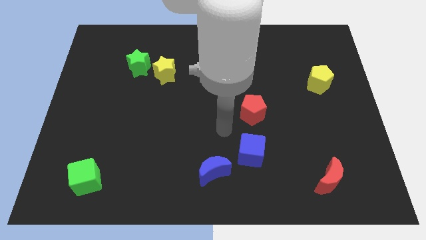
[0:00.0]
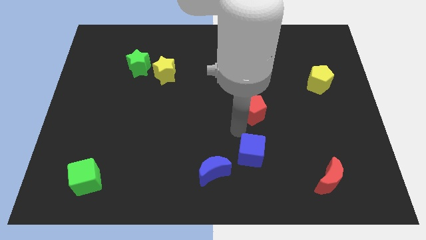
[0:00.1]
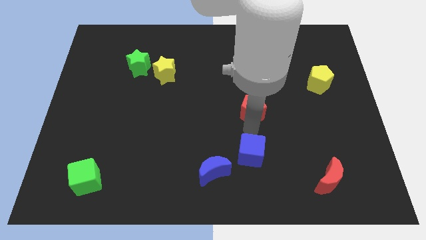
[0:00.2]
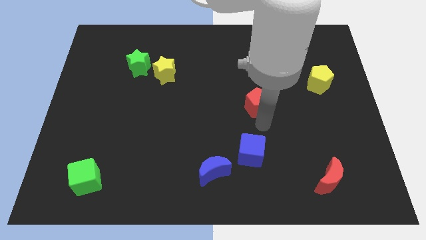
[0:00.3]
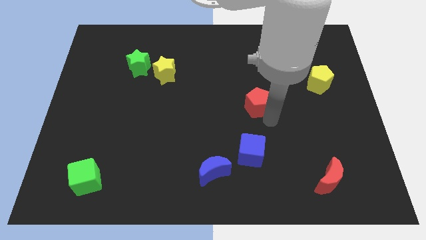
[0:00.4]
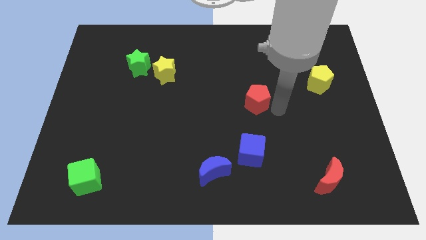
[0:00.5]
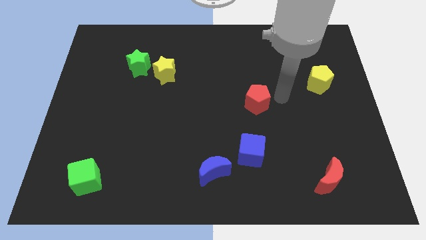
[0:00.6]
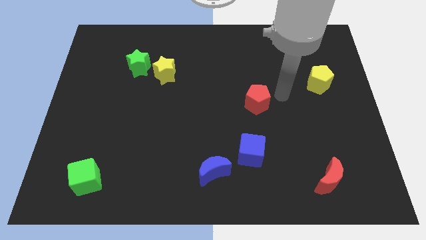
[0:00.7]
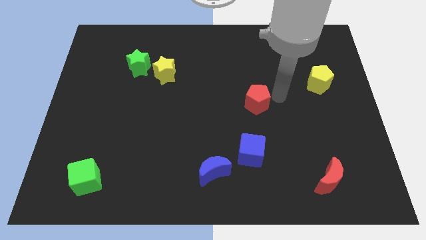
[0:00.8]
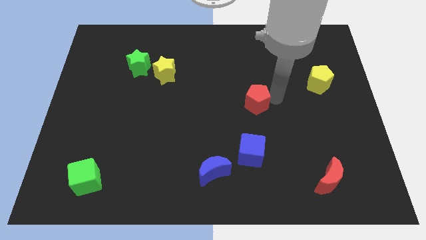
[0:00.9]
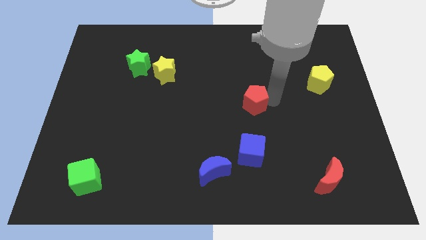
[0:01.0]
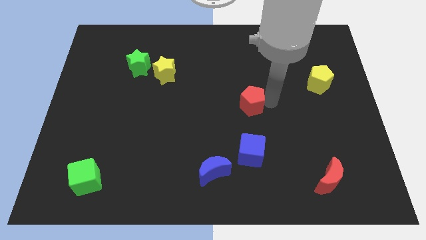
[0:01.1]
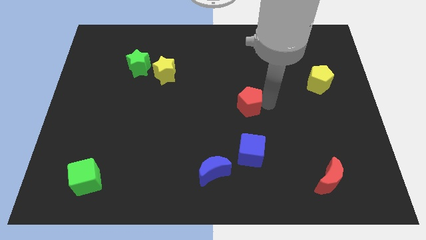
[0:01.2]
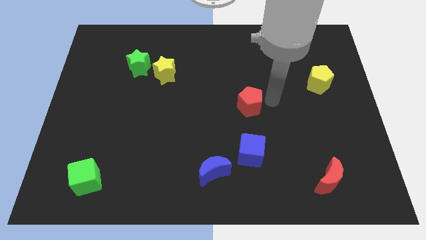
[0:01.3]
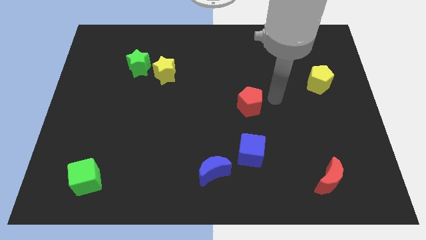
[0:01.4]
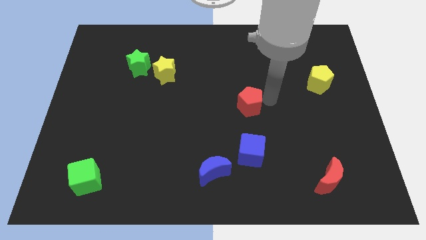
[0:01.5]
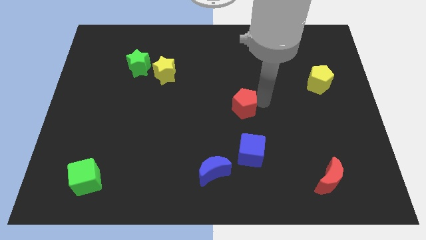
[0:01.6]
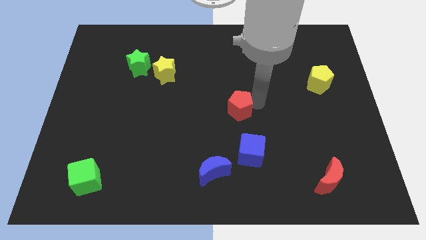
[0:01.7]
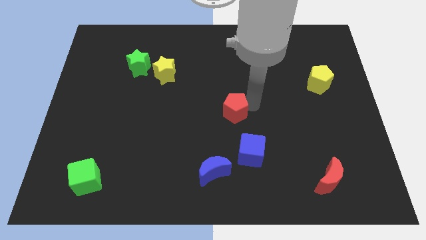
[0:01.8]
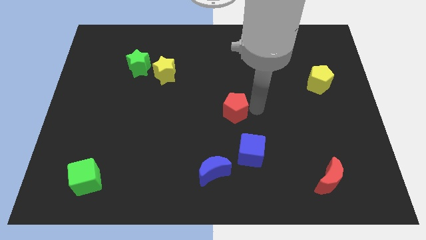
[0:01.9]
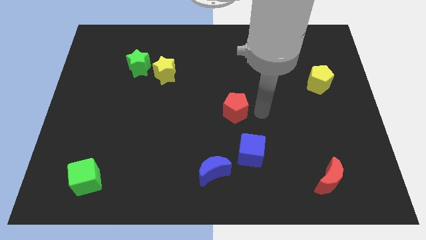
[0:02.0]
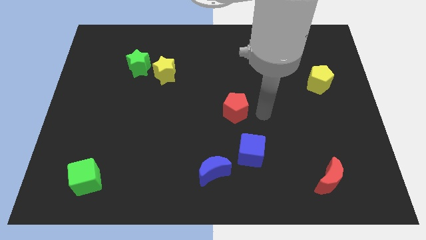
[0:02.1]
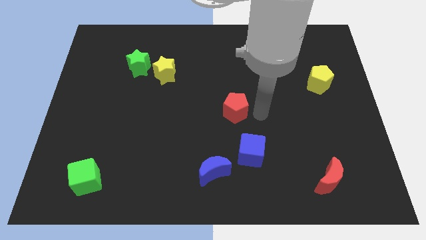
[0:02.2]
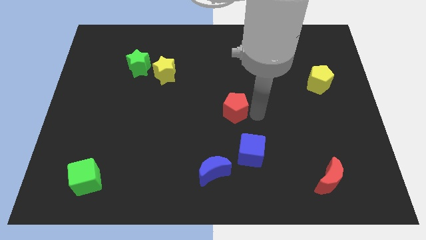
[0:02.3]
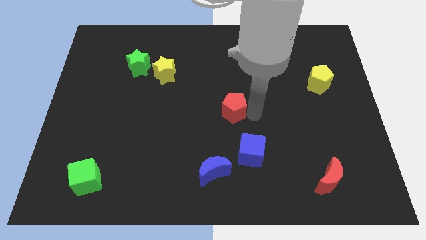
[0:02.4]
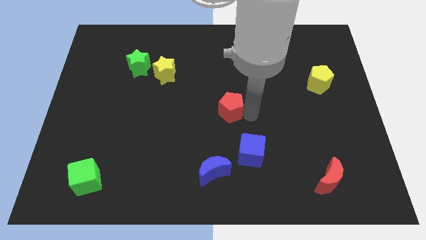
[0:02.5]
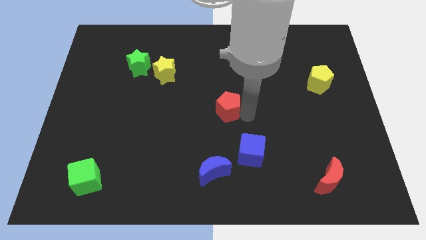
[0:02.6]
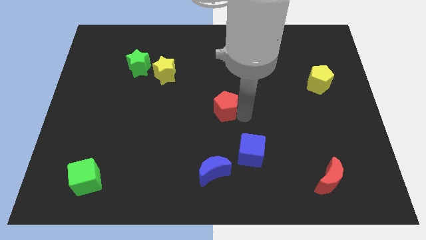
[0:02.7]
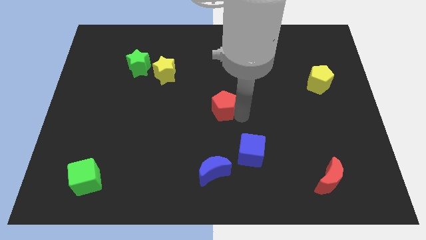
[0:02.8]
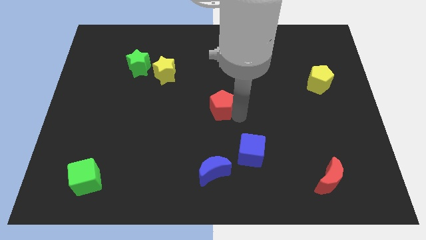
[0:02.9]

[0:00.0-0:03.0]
push the red pentagon to the left a little bit

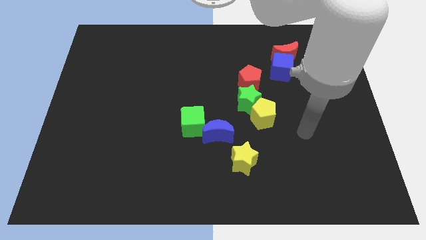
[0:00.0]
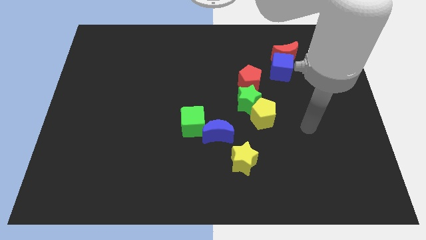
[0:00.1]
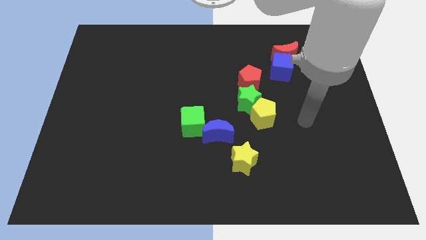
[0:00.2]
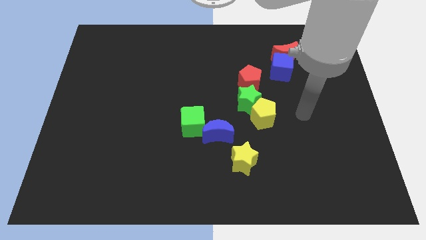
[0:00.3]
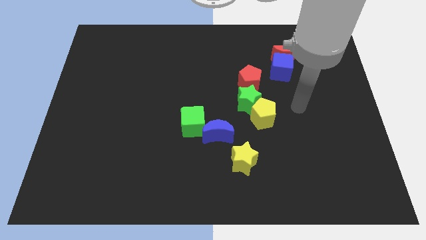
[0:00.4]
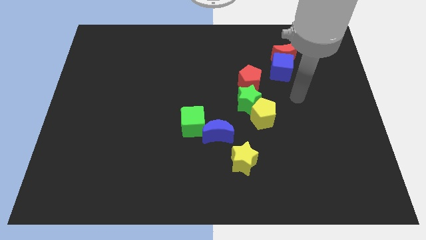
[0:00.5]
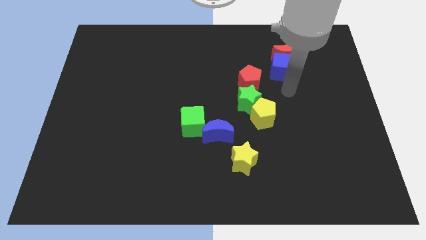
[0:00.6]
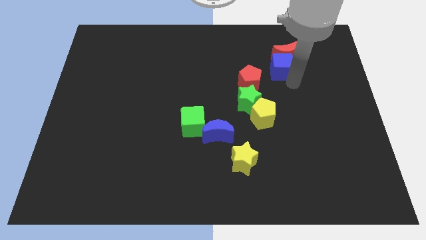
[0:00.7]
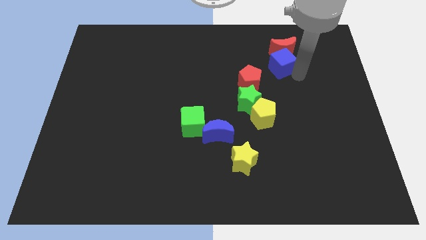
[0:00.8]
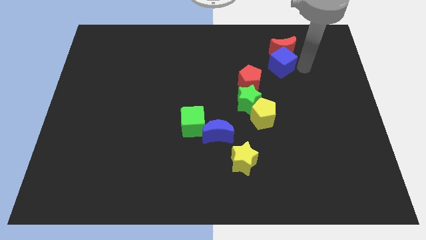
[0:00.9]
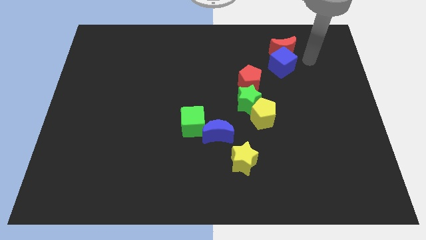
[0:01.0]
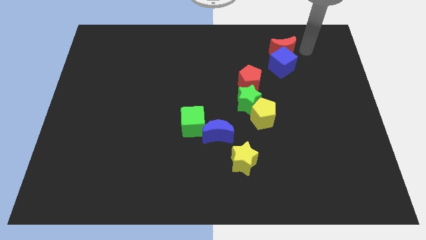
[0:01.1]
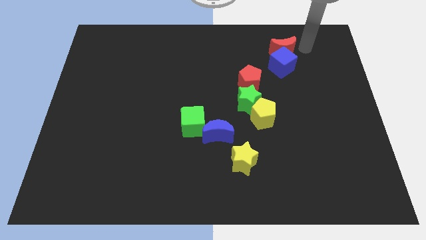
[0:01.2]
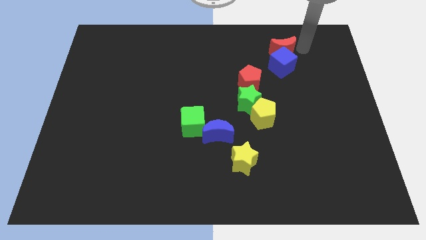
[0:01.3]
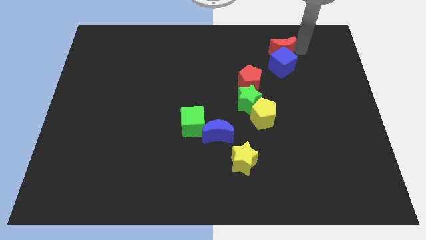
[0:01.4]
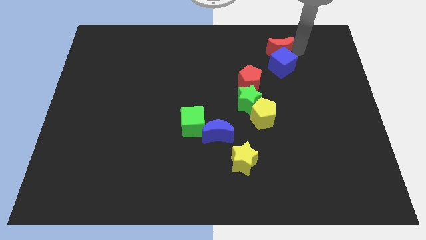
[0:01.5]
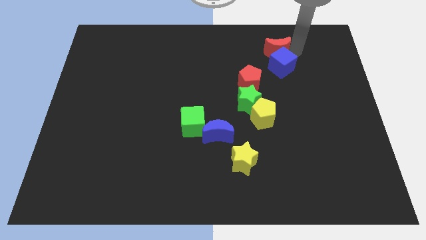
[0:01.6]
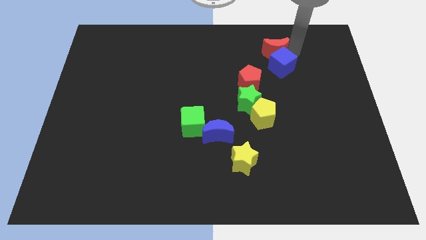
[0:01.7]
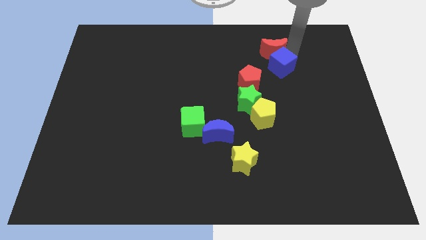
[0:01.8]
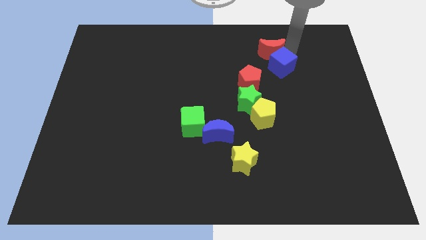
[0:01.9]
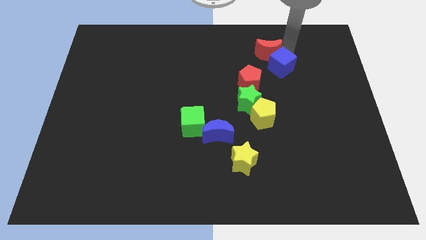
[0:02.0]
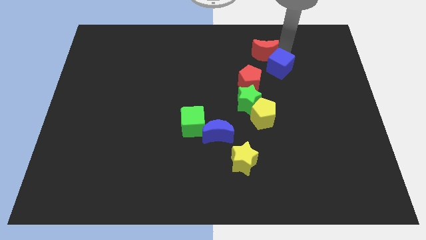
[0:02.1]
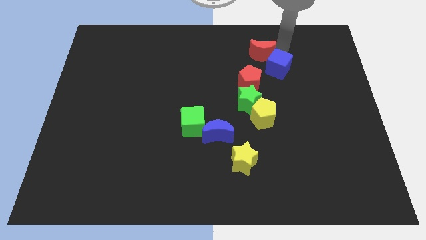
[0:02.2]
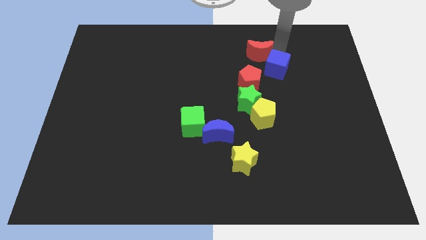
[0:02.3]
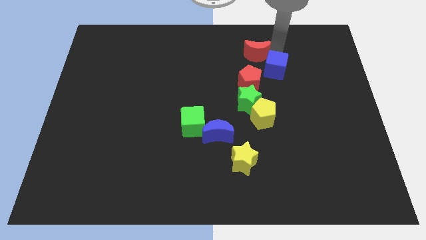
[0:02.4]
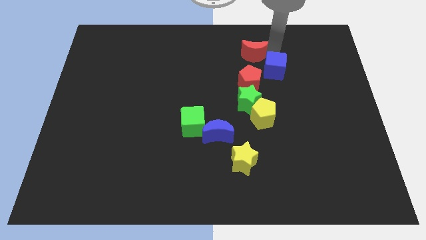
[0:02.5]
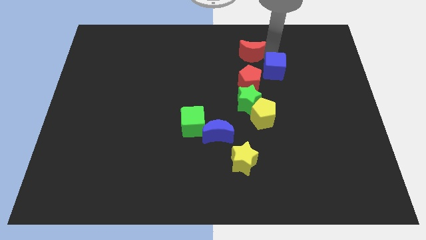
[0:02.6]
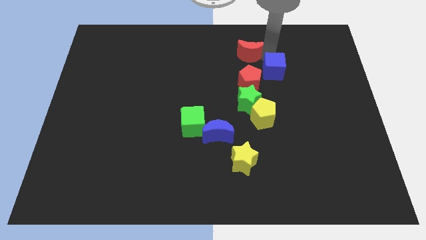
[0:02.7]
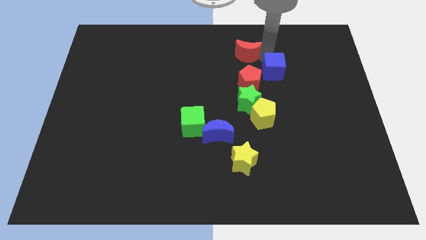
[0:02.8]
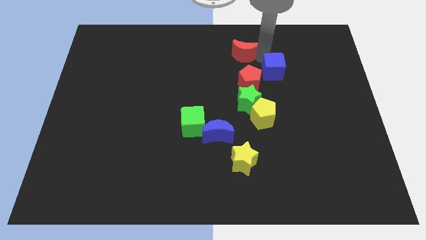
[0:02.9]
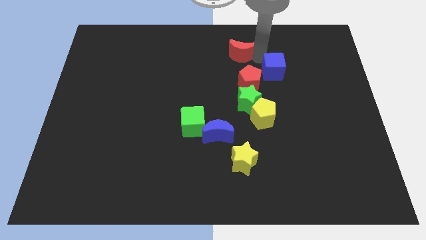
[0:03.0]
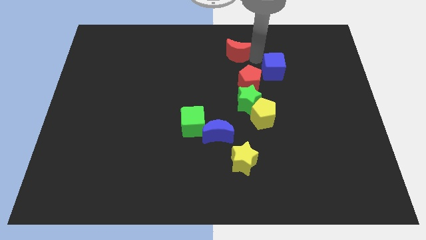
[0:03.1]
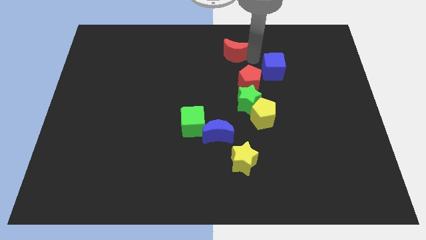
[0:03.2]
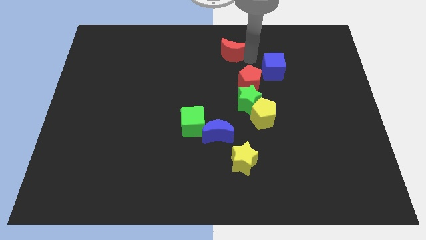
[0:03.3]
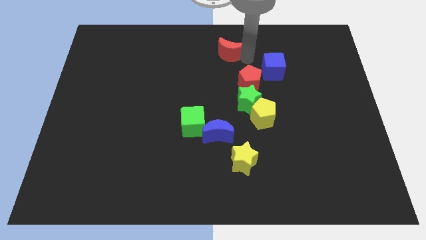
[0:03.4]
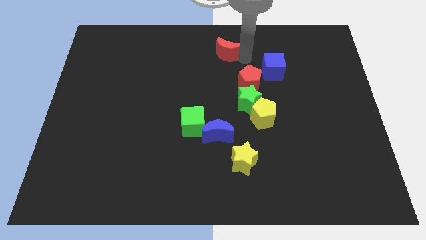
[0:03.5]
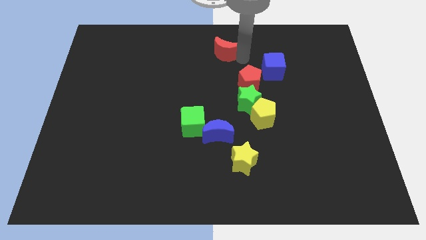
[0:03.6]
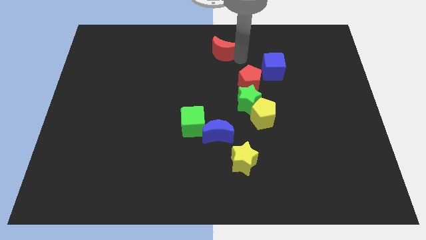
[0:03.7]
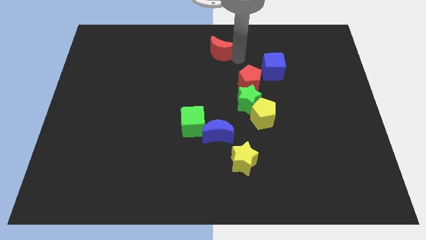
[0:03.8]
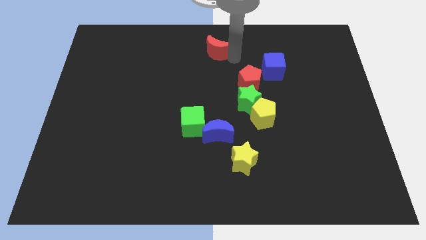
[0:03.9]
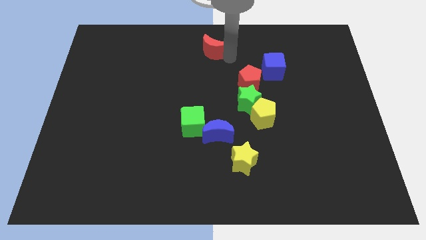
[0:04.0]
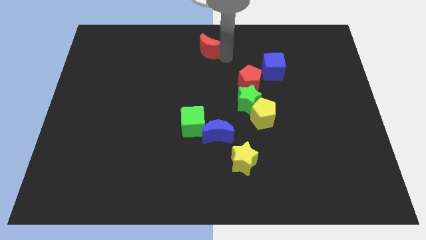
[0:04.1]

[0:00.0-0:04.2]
push the red moon left

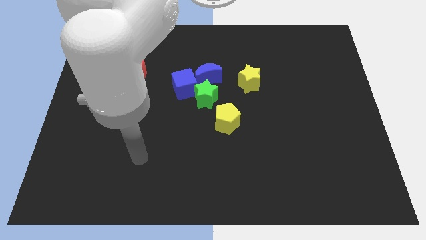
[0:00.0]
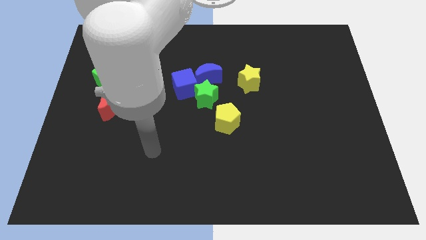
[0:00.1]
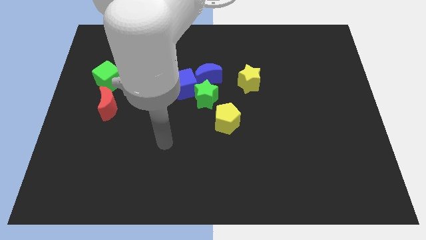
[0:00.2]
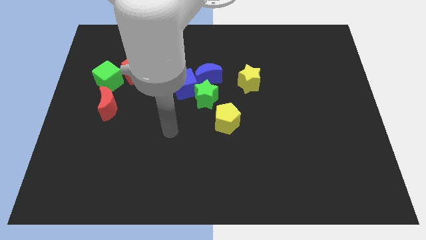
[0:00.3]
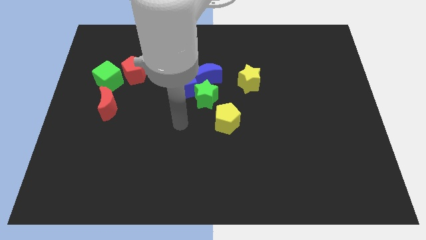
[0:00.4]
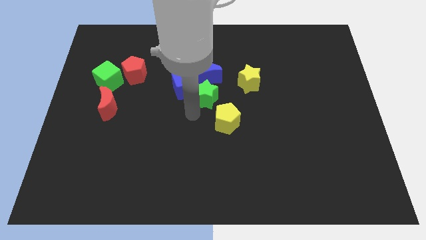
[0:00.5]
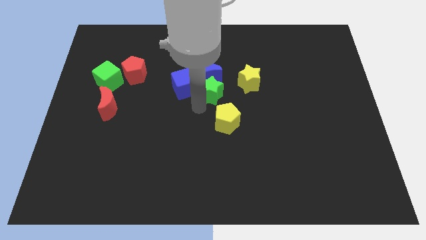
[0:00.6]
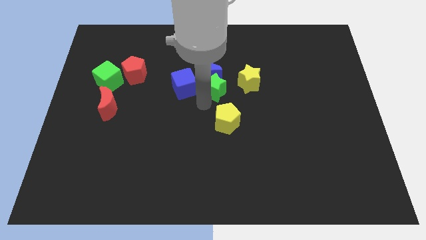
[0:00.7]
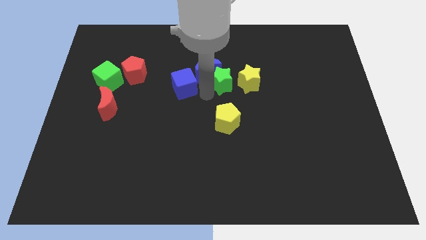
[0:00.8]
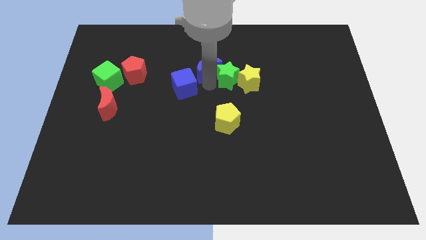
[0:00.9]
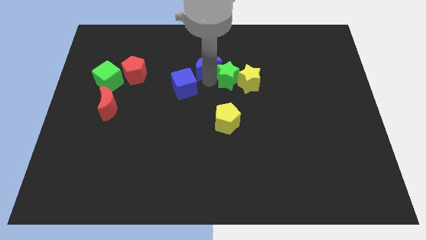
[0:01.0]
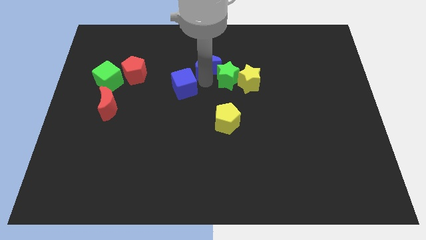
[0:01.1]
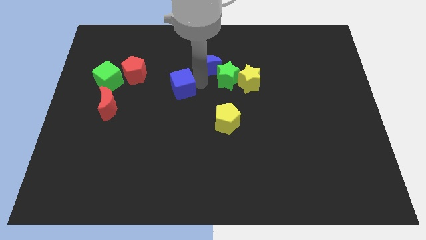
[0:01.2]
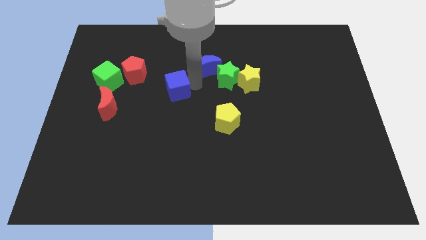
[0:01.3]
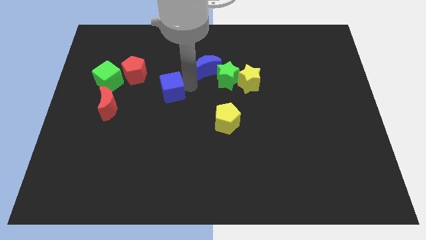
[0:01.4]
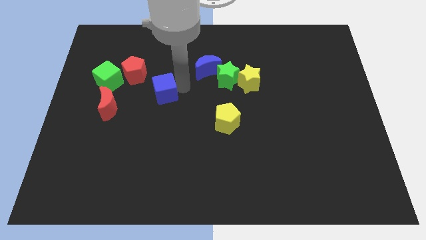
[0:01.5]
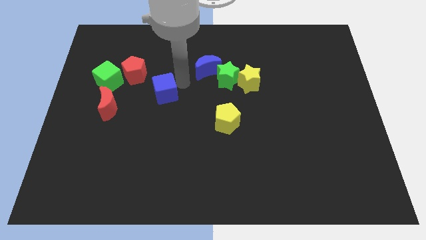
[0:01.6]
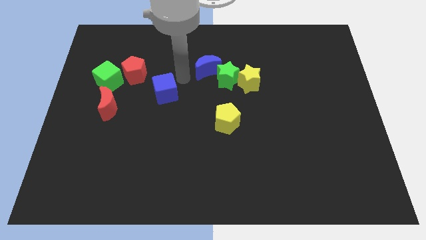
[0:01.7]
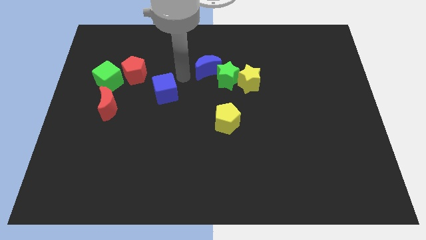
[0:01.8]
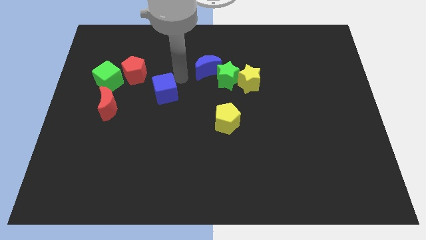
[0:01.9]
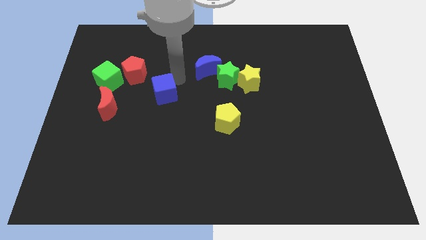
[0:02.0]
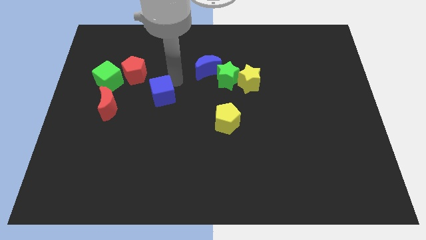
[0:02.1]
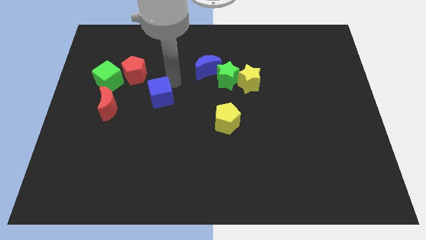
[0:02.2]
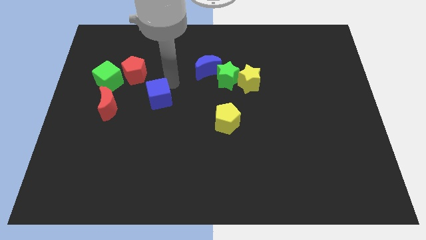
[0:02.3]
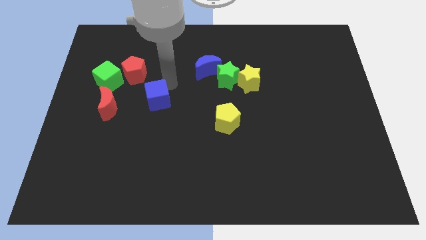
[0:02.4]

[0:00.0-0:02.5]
move the blue cube a little down and to the left
